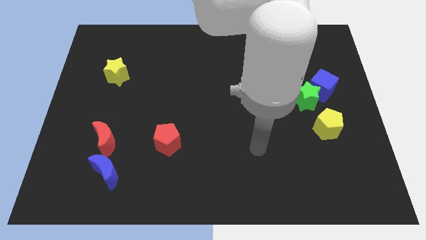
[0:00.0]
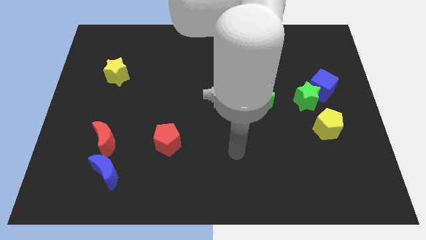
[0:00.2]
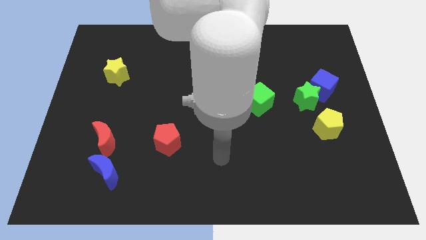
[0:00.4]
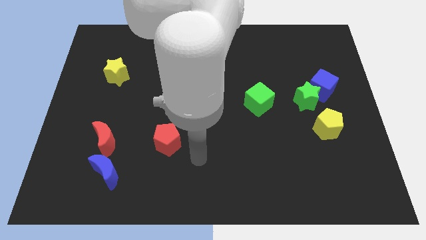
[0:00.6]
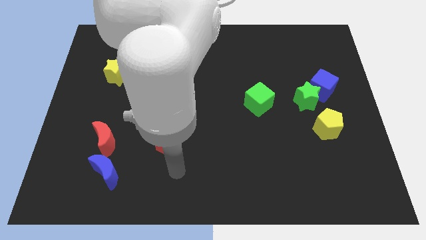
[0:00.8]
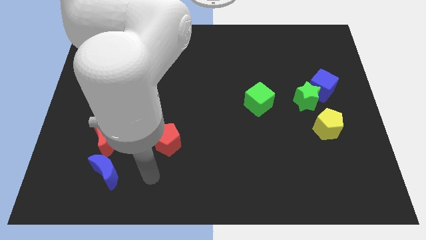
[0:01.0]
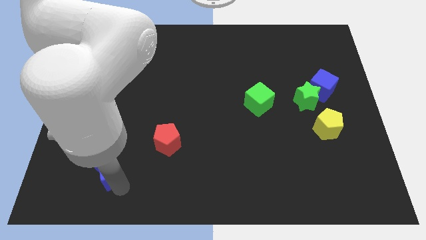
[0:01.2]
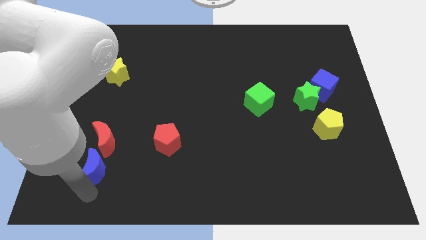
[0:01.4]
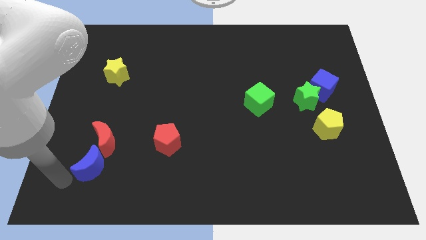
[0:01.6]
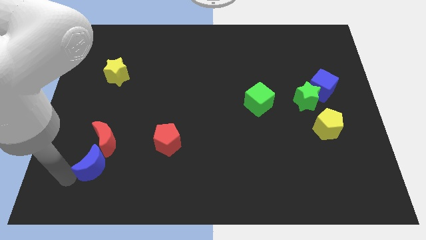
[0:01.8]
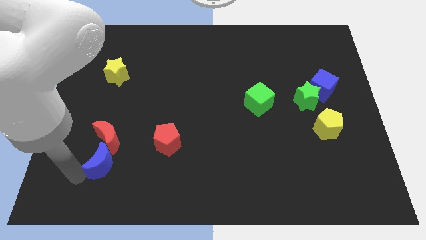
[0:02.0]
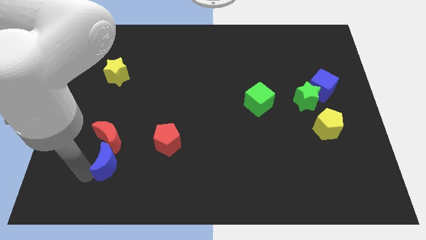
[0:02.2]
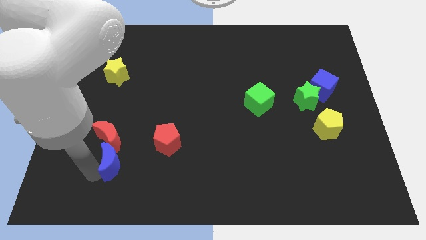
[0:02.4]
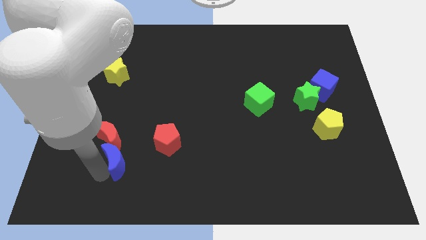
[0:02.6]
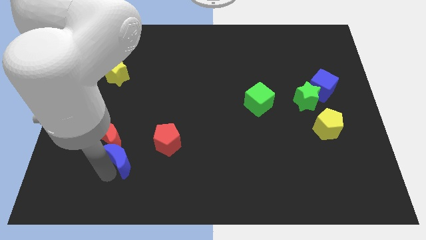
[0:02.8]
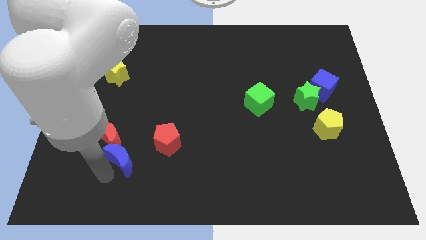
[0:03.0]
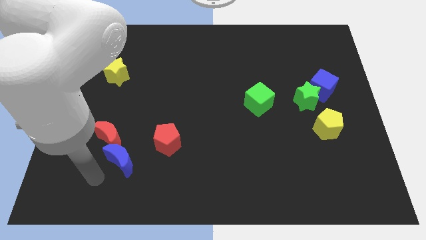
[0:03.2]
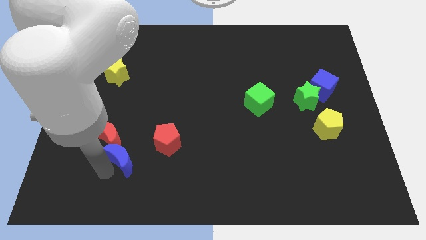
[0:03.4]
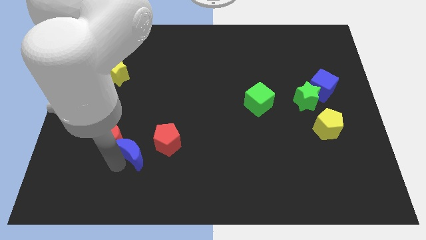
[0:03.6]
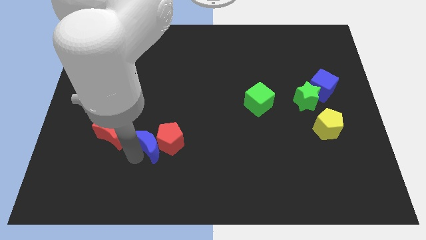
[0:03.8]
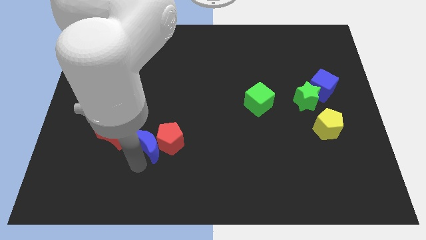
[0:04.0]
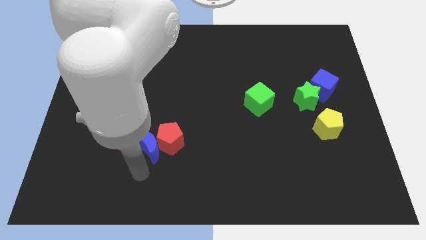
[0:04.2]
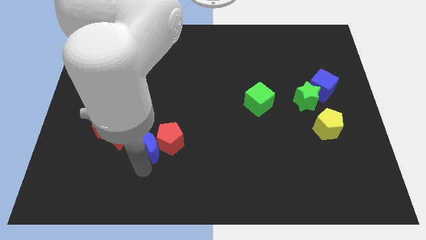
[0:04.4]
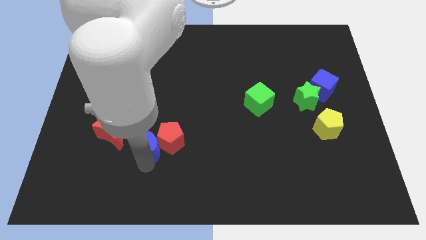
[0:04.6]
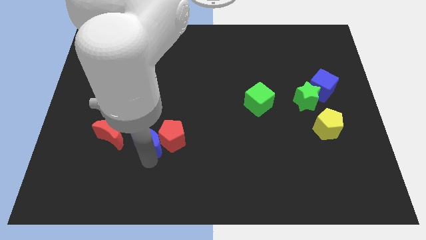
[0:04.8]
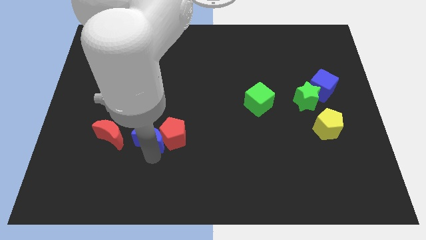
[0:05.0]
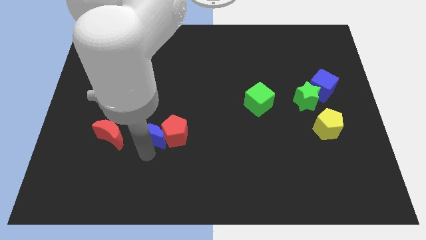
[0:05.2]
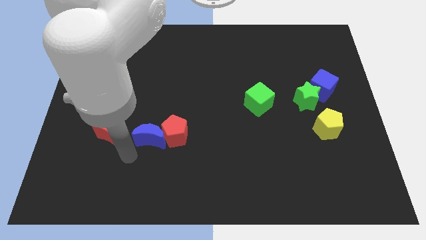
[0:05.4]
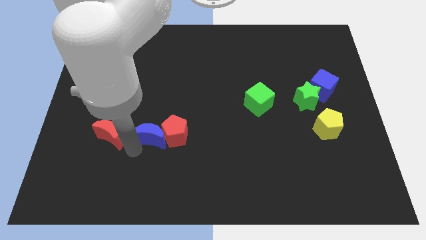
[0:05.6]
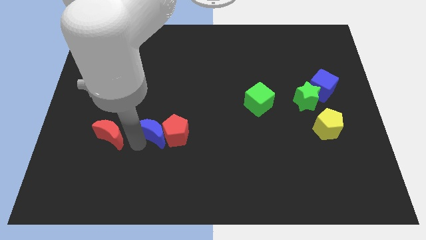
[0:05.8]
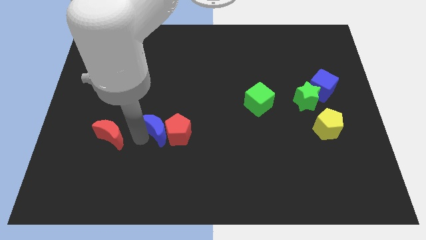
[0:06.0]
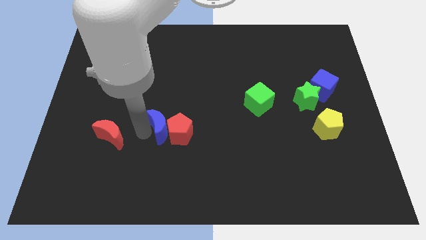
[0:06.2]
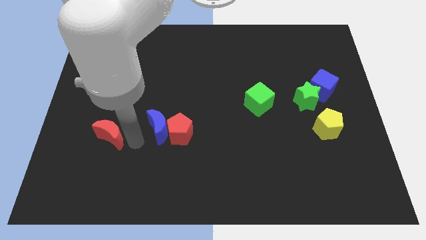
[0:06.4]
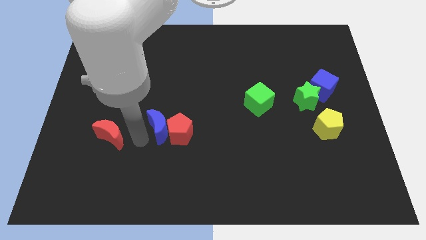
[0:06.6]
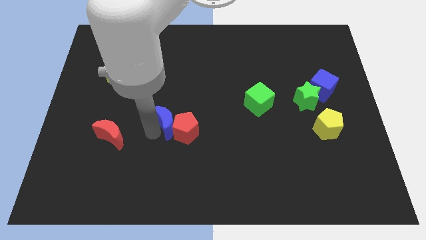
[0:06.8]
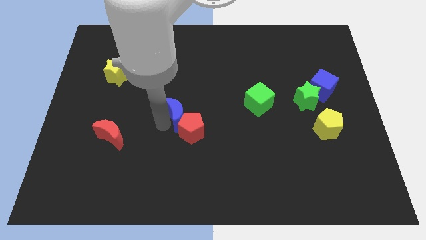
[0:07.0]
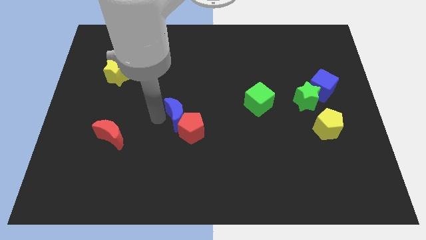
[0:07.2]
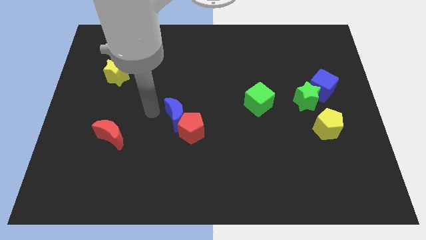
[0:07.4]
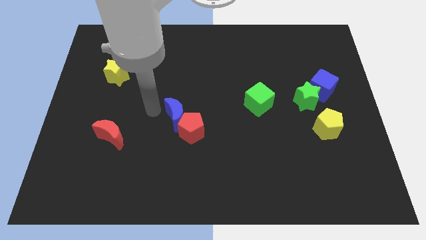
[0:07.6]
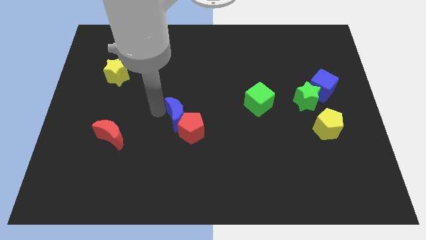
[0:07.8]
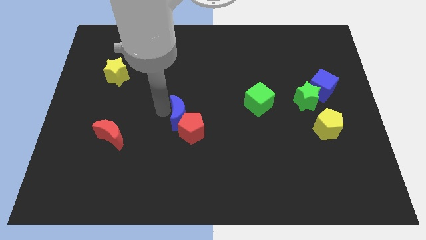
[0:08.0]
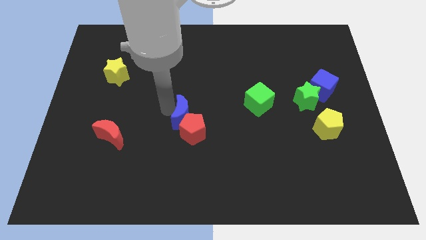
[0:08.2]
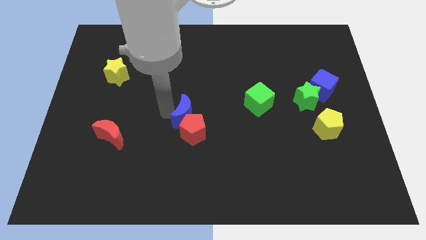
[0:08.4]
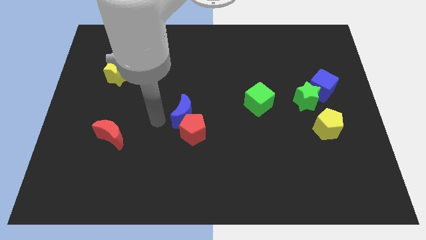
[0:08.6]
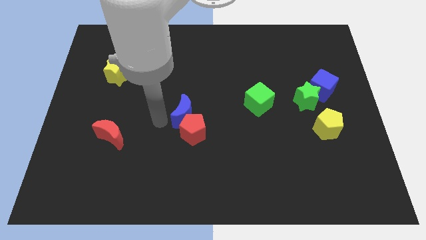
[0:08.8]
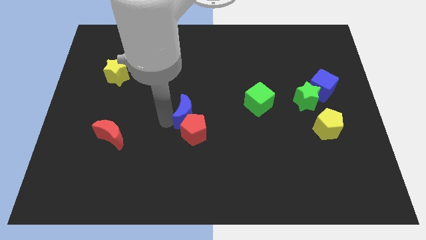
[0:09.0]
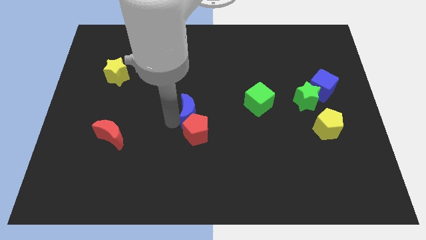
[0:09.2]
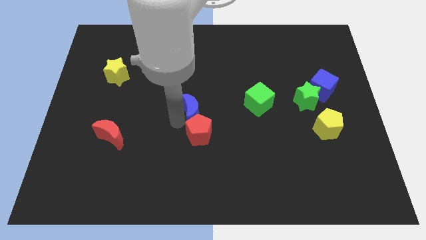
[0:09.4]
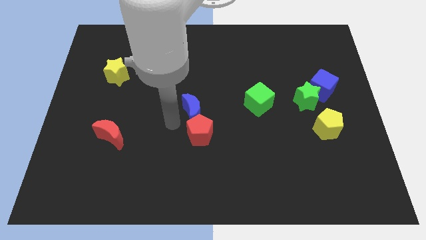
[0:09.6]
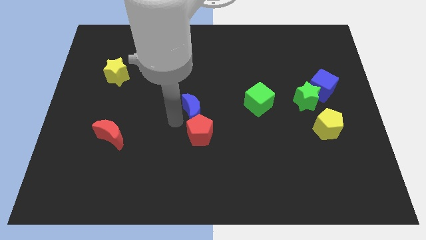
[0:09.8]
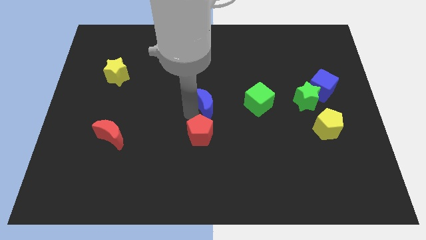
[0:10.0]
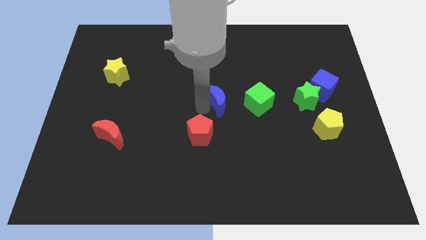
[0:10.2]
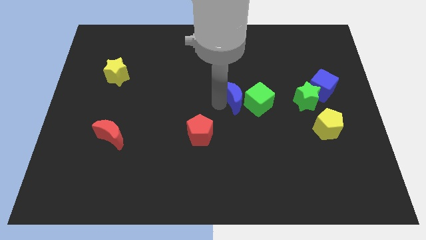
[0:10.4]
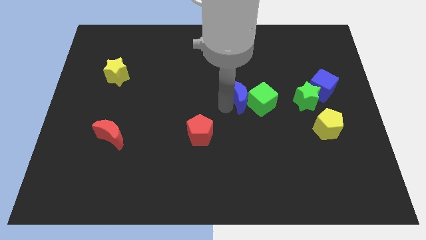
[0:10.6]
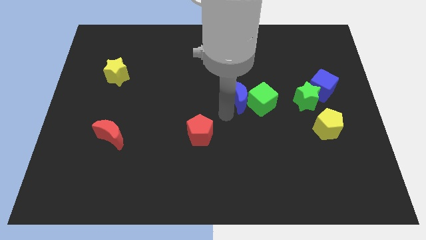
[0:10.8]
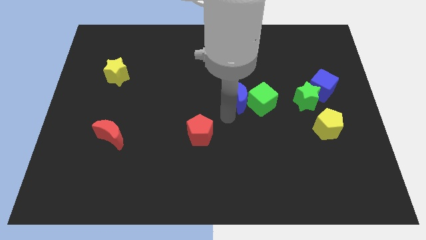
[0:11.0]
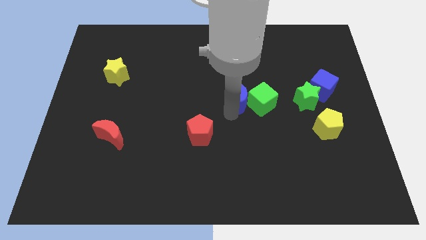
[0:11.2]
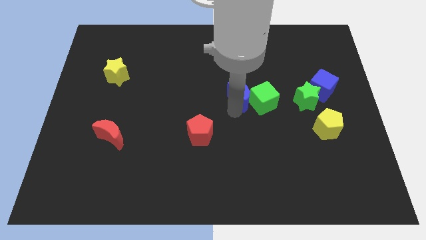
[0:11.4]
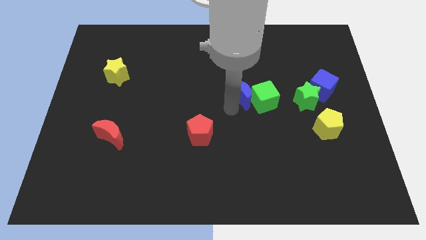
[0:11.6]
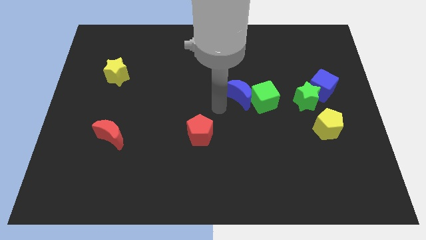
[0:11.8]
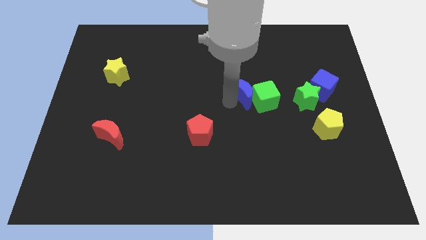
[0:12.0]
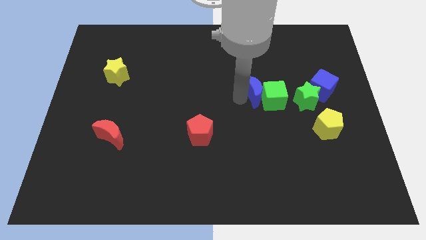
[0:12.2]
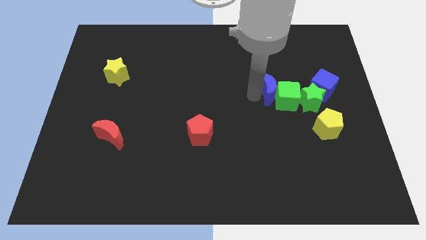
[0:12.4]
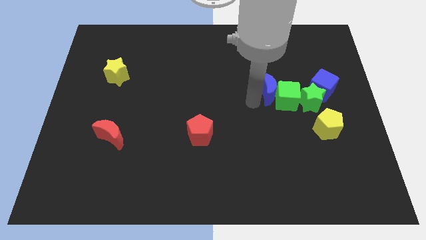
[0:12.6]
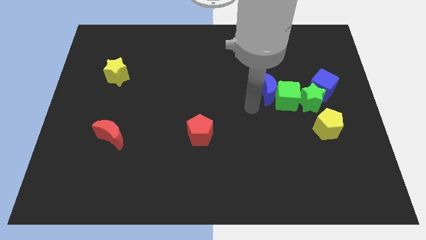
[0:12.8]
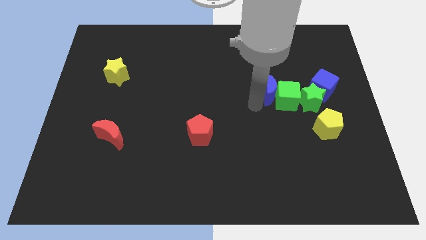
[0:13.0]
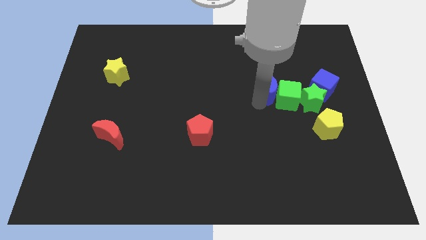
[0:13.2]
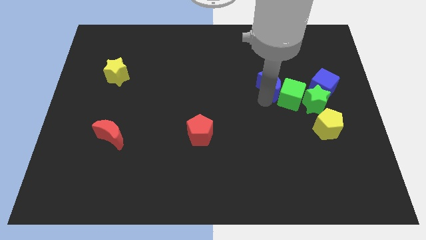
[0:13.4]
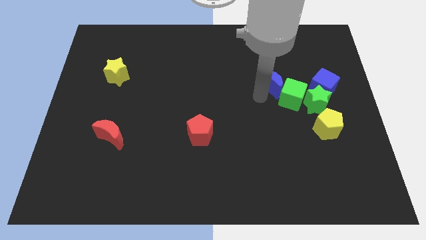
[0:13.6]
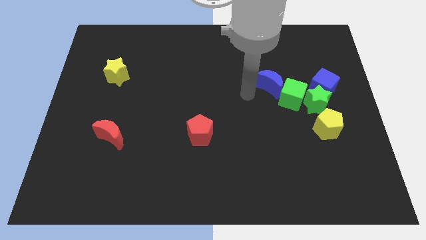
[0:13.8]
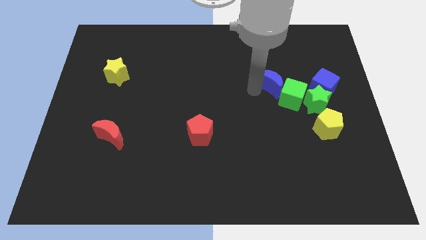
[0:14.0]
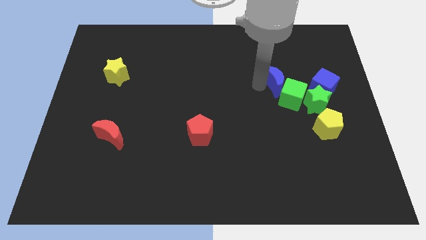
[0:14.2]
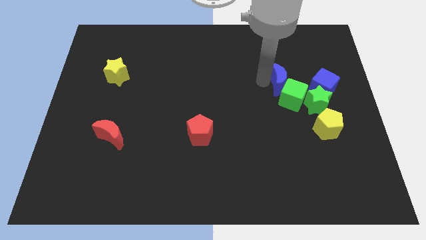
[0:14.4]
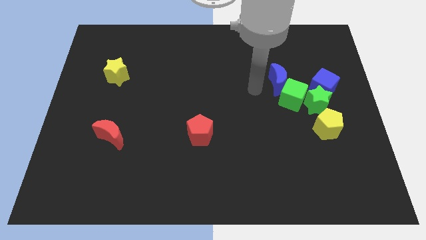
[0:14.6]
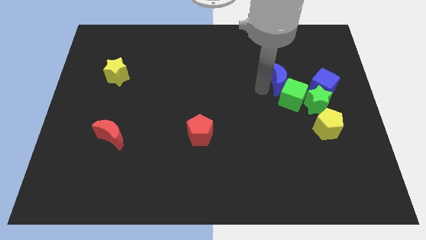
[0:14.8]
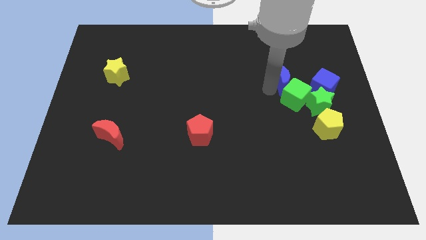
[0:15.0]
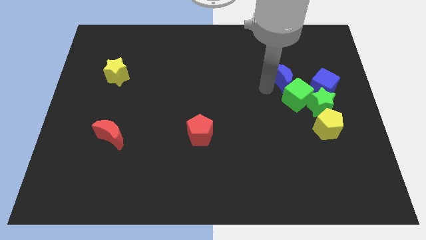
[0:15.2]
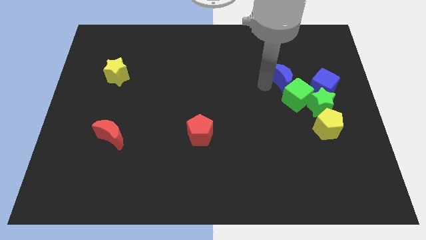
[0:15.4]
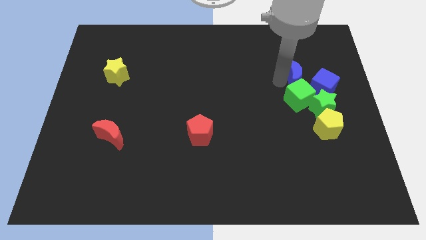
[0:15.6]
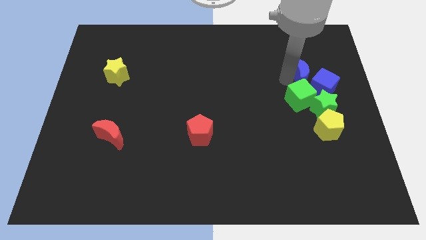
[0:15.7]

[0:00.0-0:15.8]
move the blue moon above the green star
